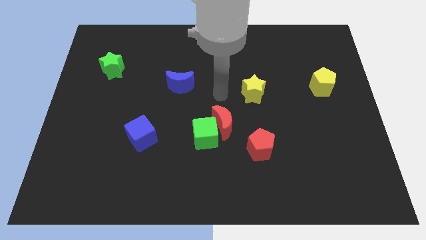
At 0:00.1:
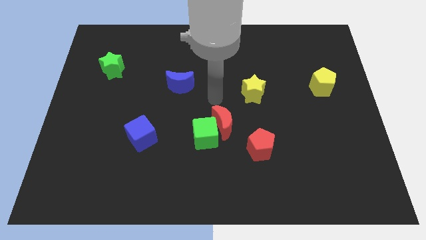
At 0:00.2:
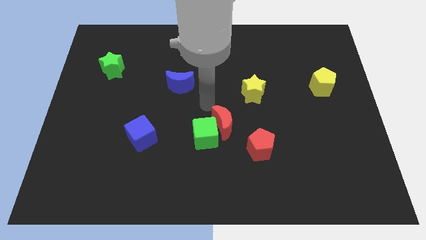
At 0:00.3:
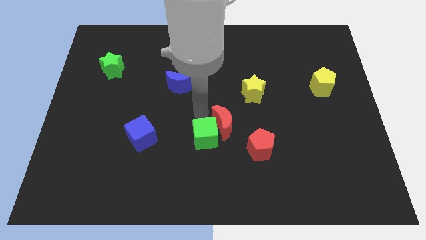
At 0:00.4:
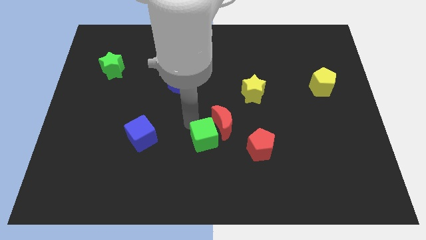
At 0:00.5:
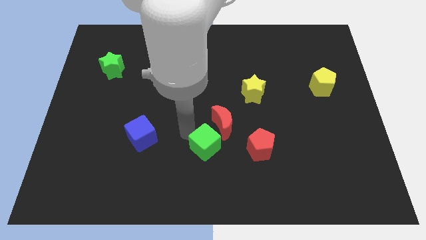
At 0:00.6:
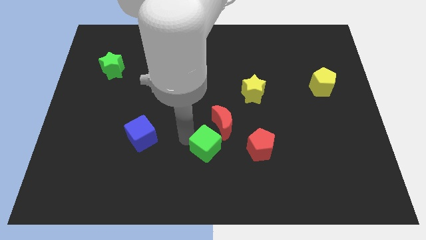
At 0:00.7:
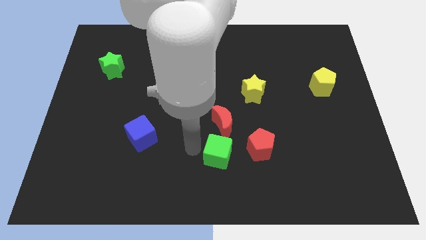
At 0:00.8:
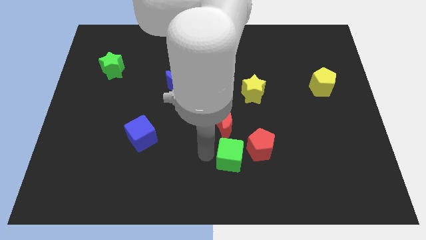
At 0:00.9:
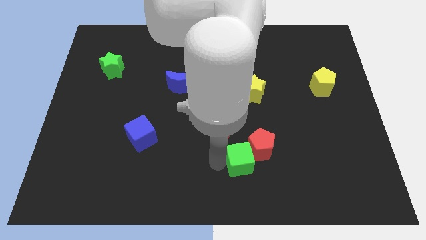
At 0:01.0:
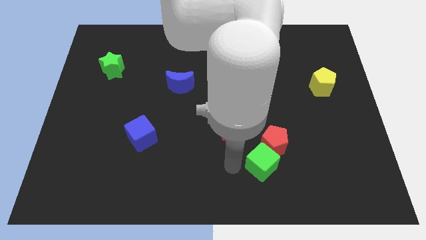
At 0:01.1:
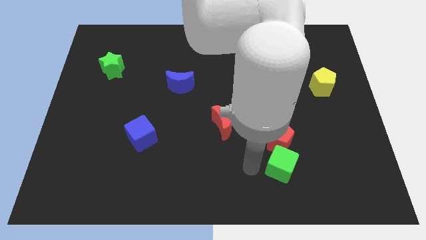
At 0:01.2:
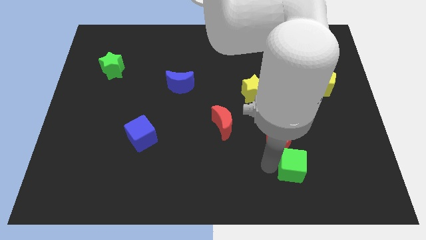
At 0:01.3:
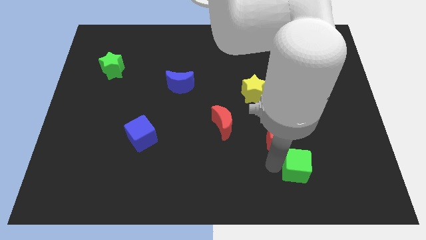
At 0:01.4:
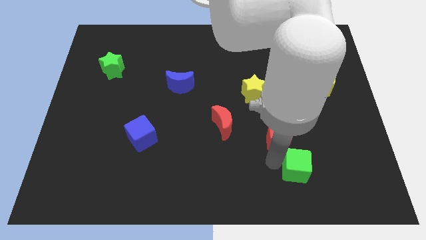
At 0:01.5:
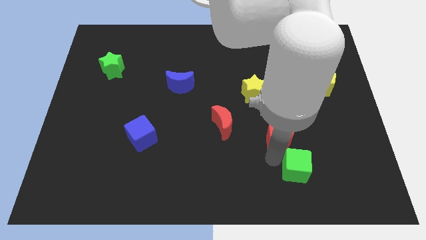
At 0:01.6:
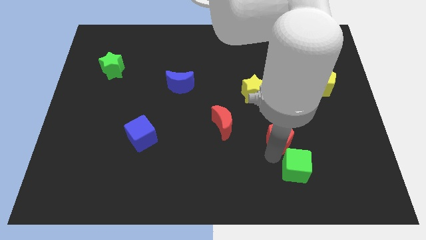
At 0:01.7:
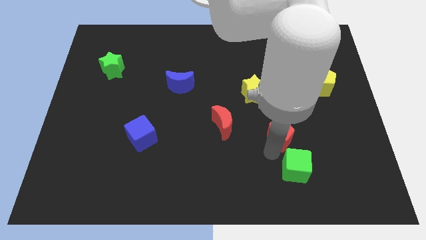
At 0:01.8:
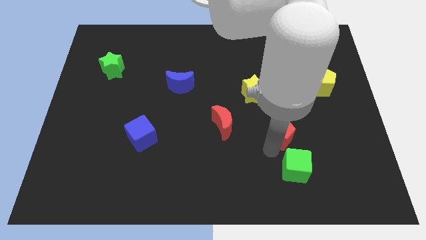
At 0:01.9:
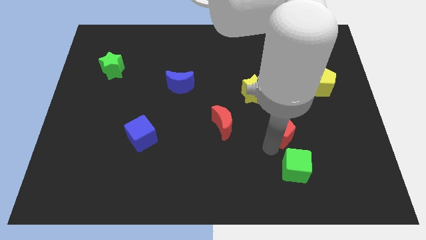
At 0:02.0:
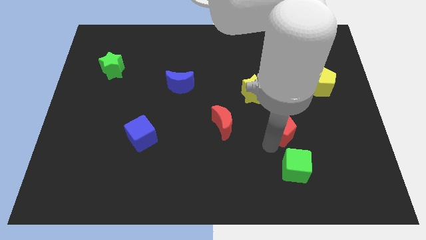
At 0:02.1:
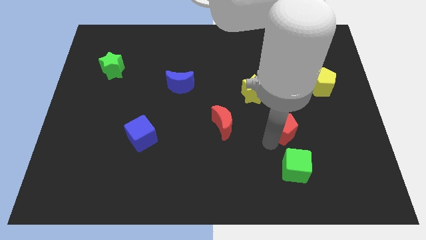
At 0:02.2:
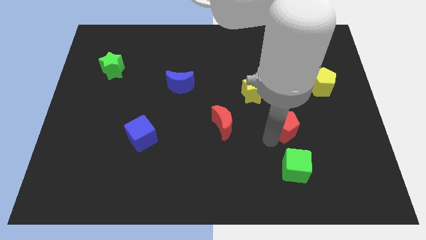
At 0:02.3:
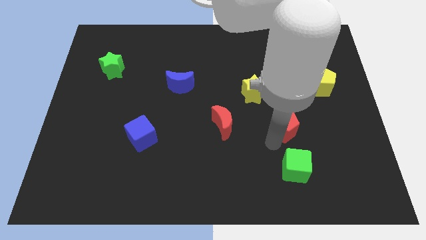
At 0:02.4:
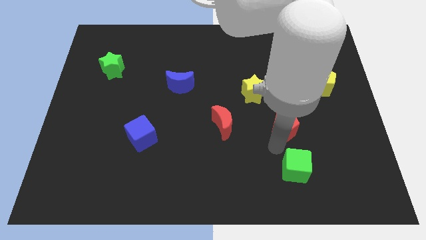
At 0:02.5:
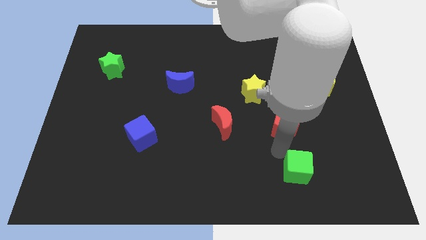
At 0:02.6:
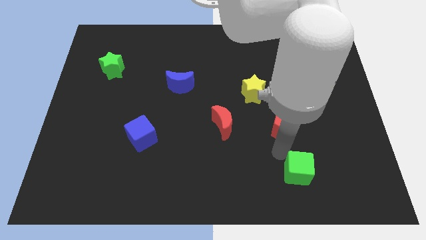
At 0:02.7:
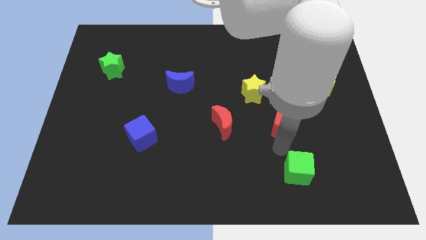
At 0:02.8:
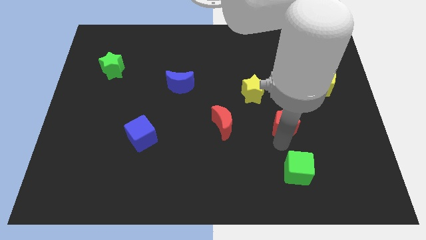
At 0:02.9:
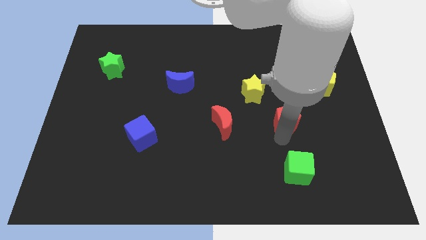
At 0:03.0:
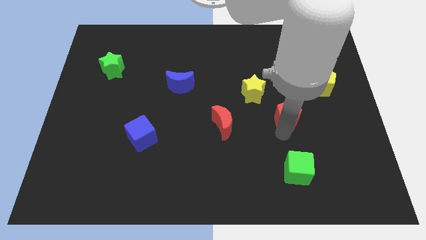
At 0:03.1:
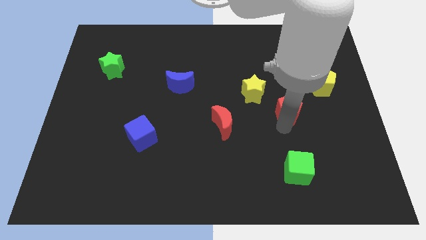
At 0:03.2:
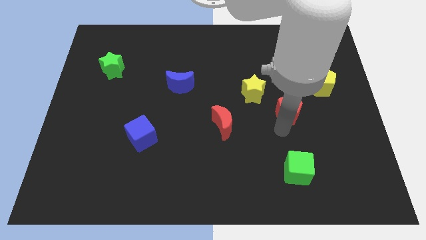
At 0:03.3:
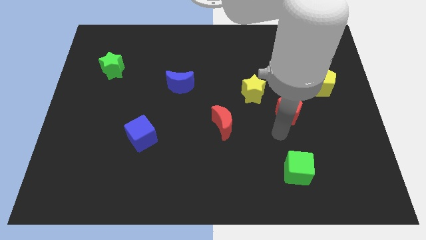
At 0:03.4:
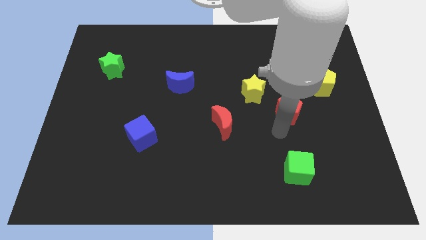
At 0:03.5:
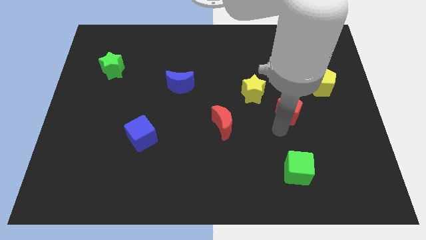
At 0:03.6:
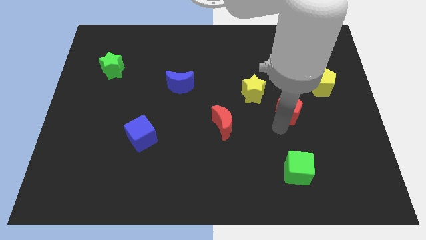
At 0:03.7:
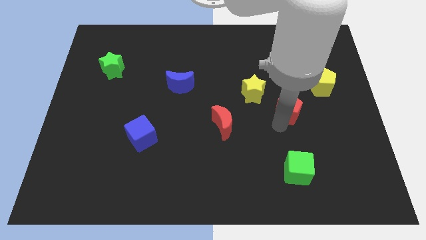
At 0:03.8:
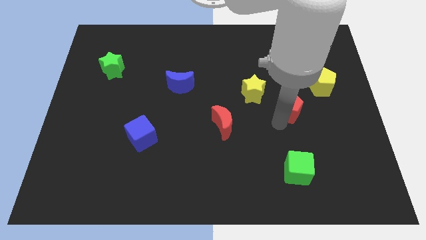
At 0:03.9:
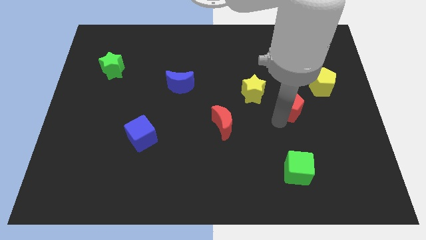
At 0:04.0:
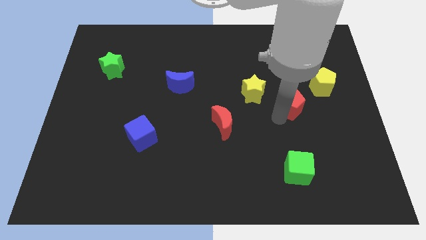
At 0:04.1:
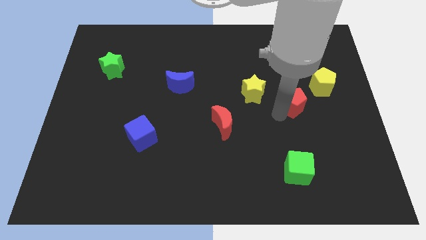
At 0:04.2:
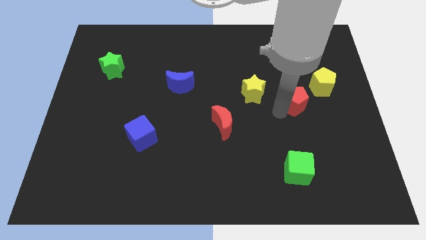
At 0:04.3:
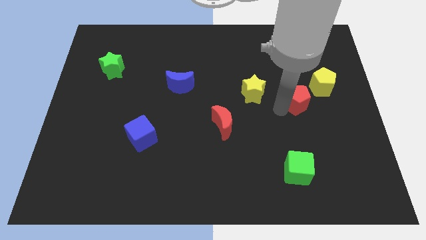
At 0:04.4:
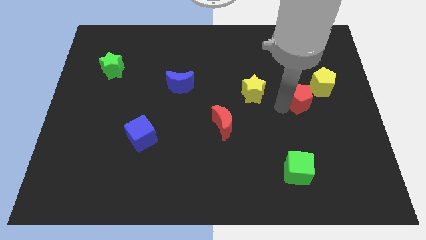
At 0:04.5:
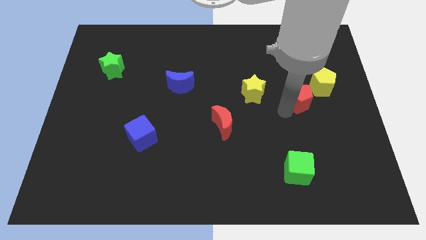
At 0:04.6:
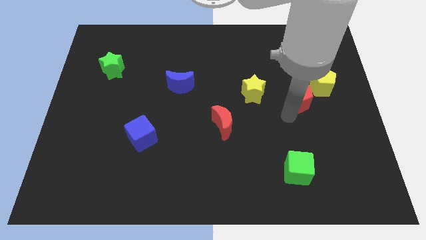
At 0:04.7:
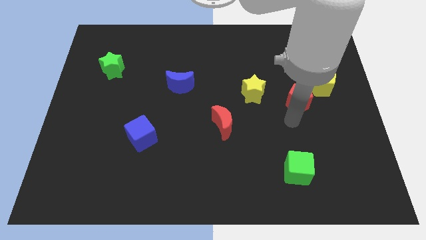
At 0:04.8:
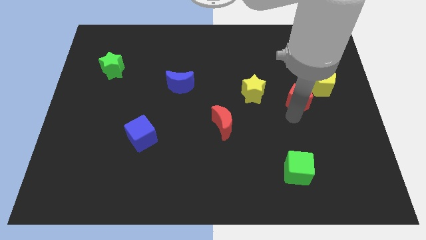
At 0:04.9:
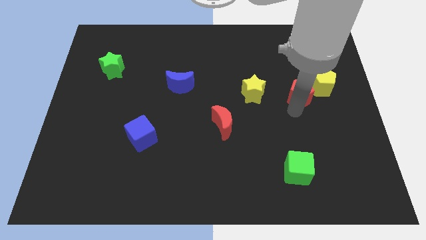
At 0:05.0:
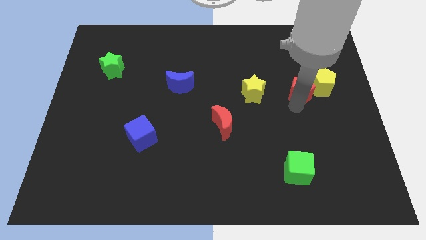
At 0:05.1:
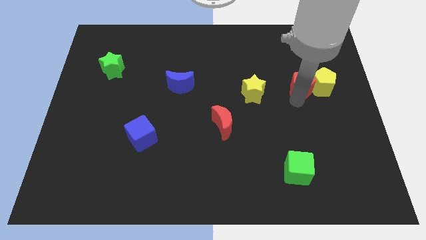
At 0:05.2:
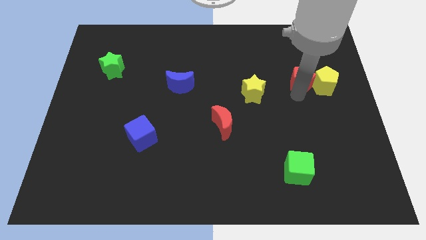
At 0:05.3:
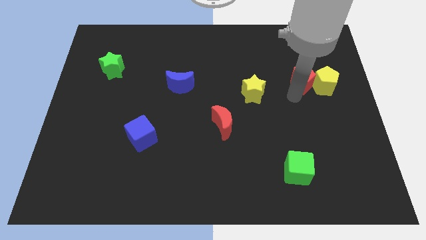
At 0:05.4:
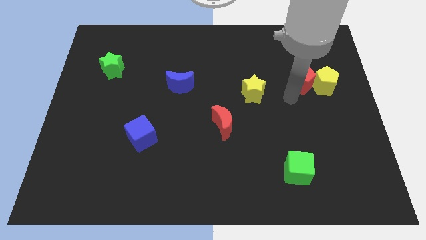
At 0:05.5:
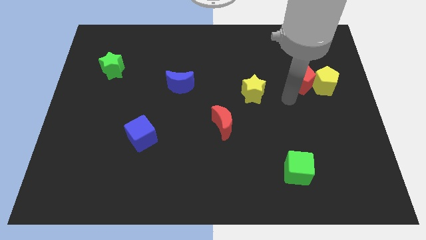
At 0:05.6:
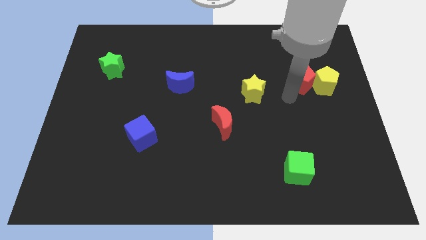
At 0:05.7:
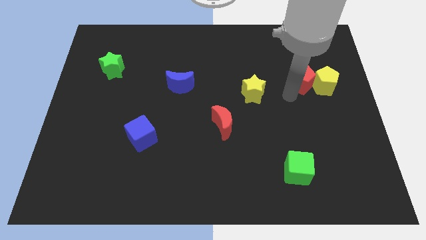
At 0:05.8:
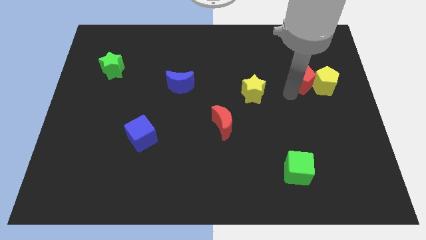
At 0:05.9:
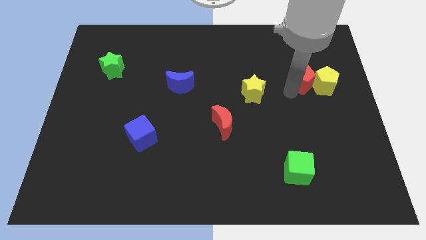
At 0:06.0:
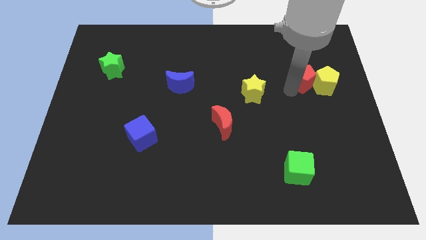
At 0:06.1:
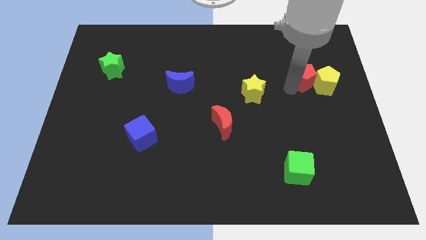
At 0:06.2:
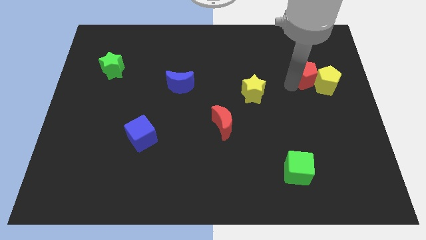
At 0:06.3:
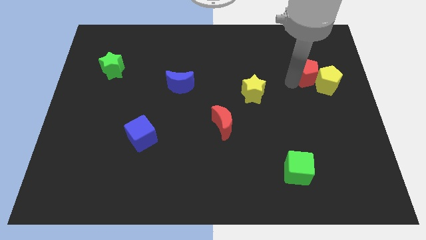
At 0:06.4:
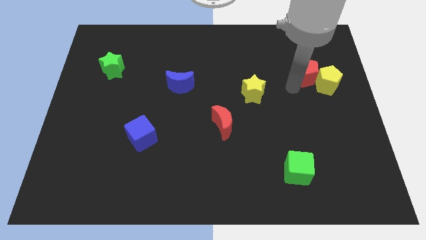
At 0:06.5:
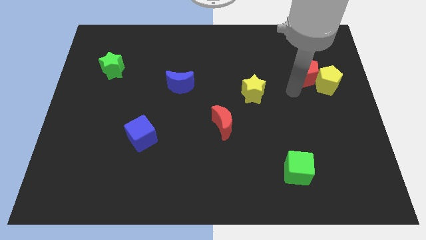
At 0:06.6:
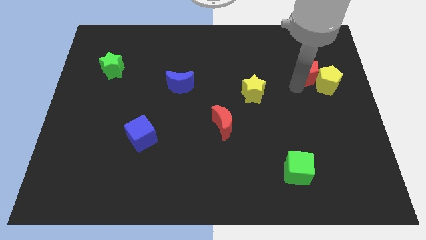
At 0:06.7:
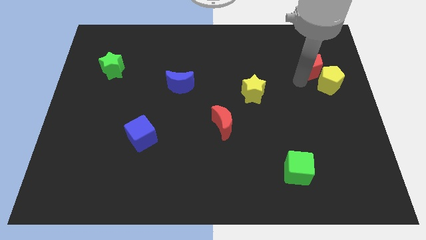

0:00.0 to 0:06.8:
slide the red pentagon above the yellow pentagon
